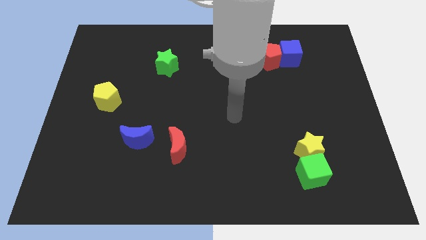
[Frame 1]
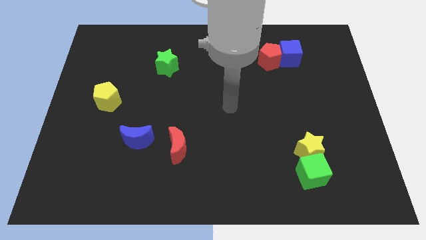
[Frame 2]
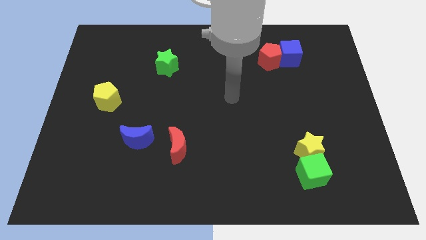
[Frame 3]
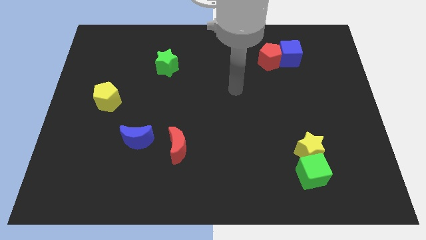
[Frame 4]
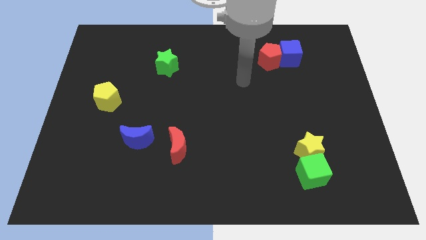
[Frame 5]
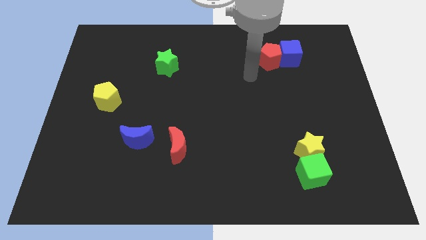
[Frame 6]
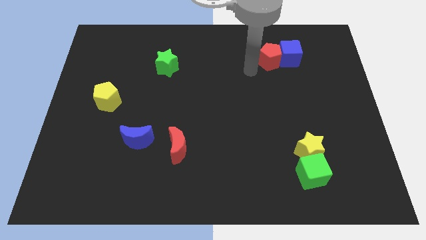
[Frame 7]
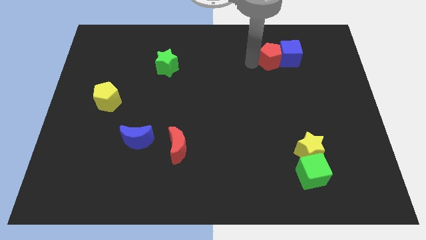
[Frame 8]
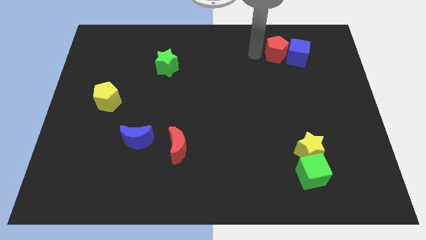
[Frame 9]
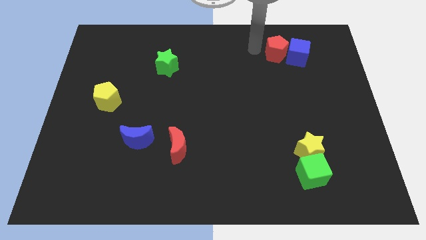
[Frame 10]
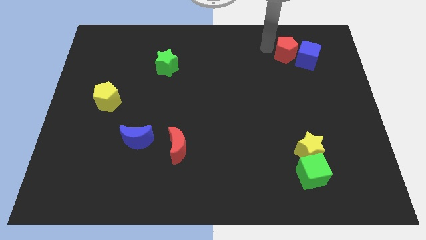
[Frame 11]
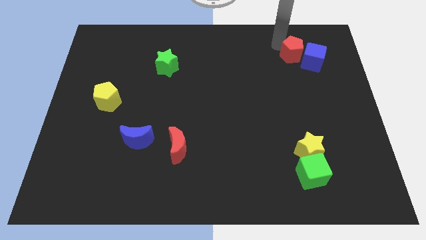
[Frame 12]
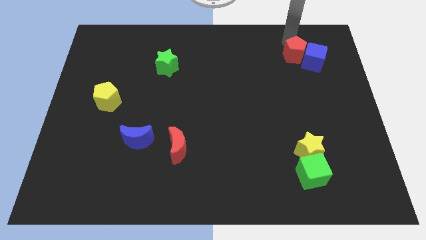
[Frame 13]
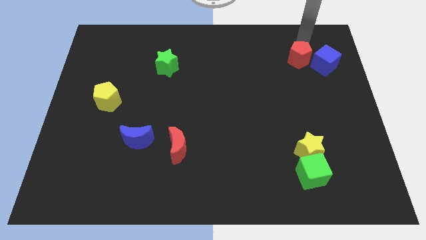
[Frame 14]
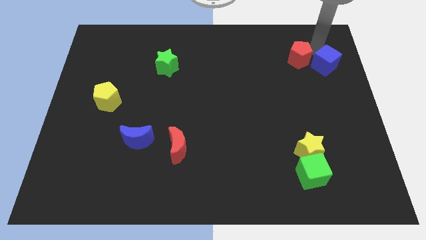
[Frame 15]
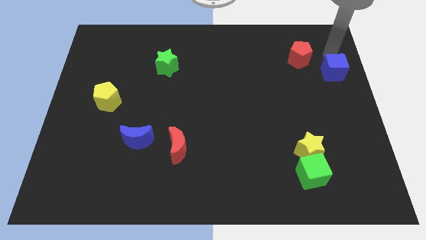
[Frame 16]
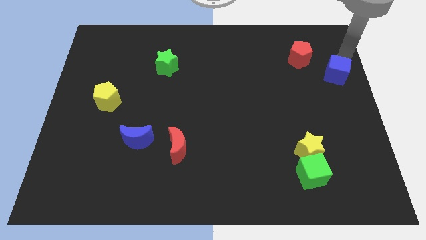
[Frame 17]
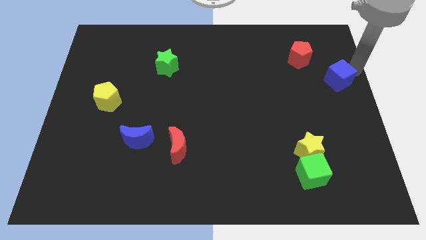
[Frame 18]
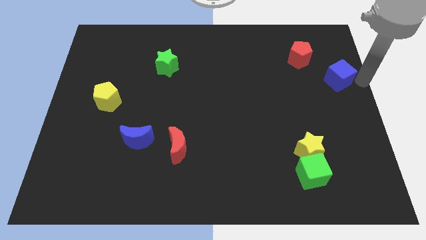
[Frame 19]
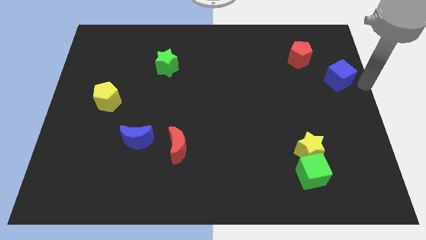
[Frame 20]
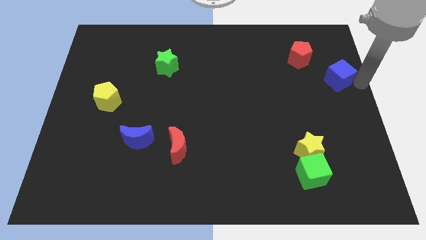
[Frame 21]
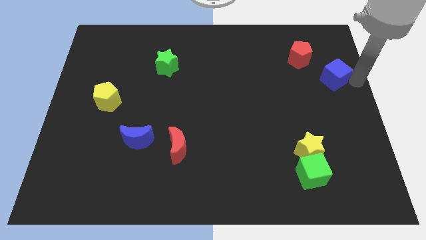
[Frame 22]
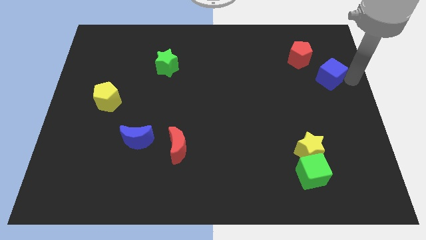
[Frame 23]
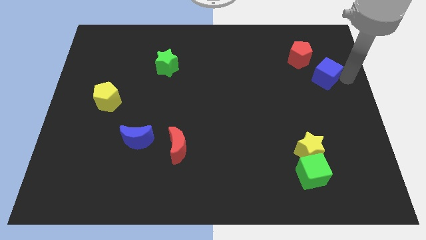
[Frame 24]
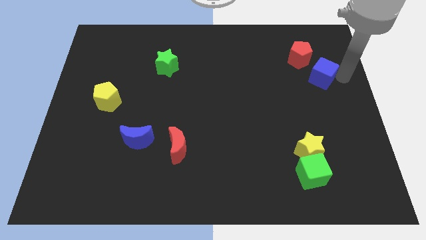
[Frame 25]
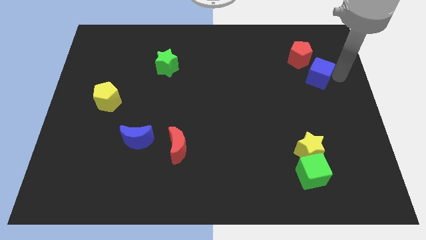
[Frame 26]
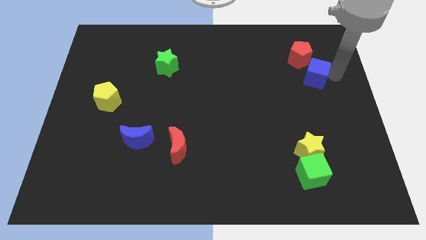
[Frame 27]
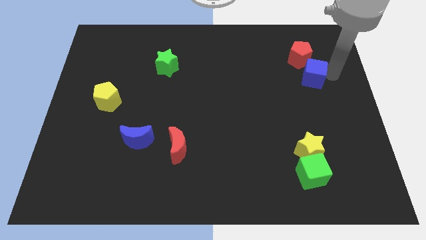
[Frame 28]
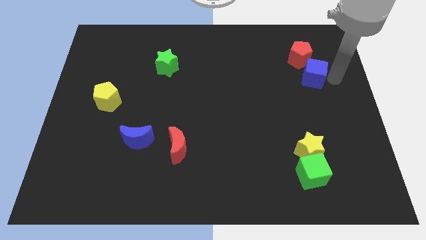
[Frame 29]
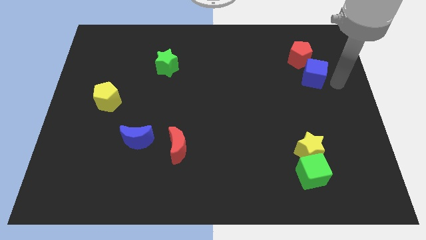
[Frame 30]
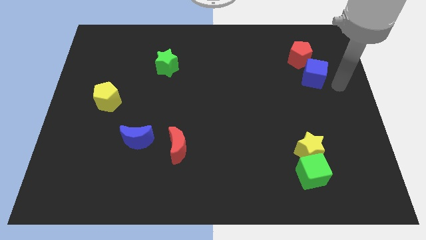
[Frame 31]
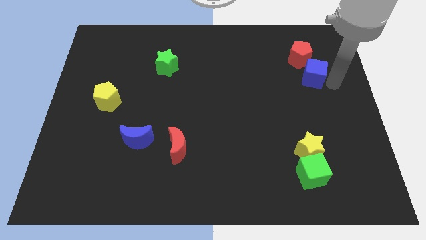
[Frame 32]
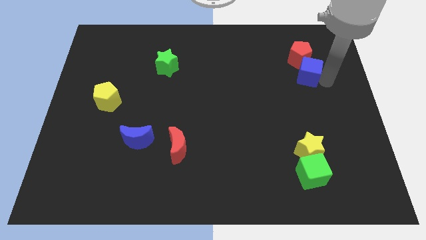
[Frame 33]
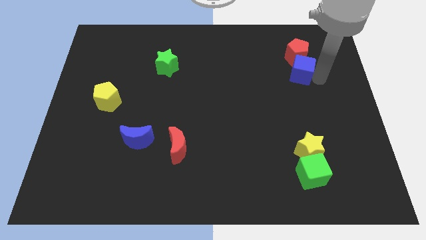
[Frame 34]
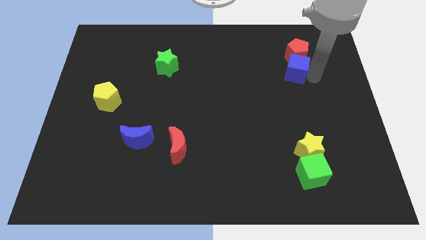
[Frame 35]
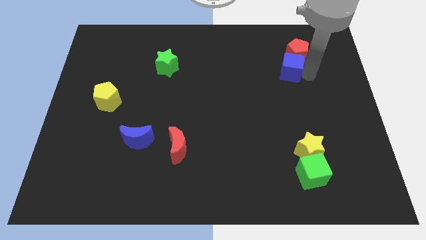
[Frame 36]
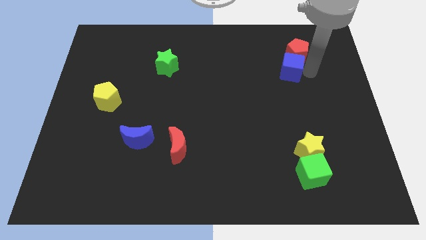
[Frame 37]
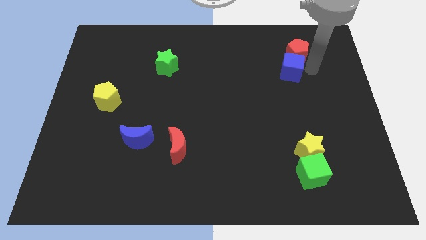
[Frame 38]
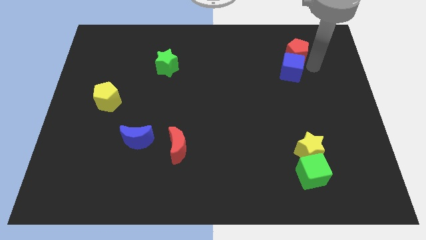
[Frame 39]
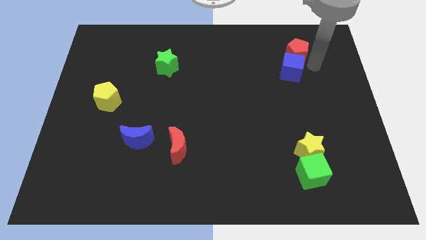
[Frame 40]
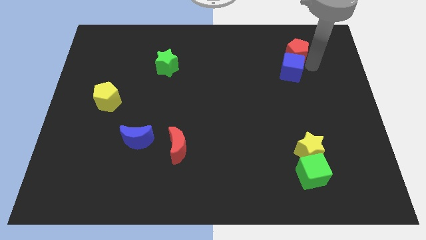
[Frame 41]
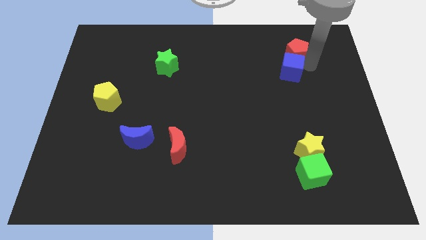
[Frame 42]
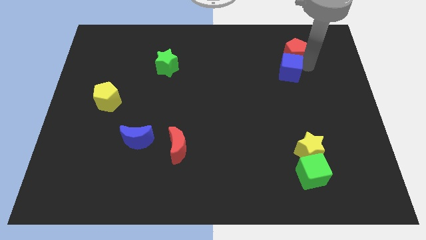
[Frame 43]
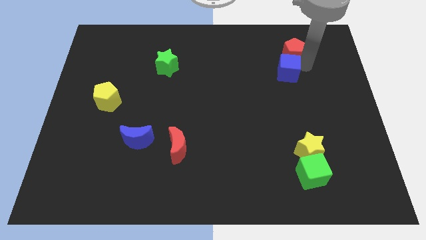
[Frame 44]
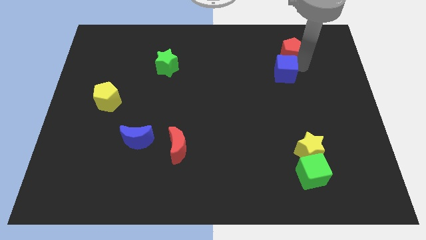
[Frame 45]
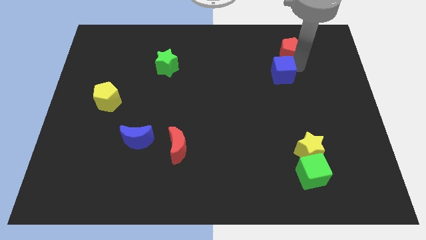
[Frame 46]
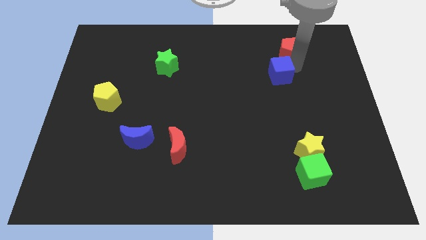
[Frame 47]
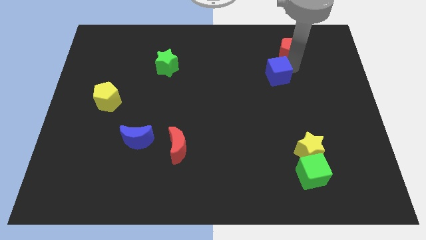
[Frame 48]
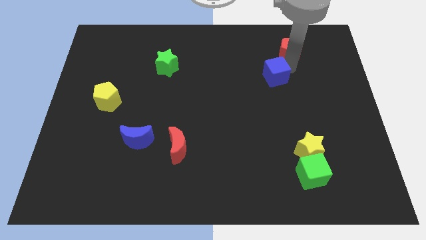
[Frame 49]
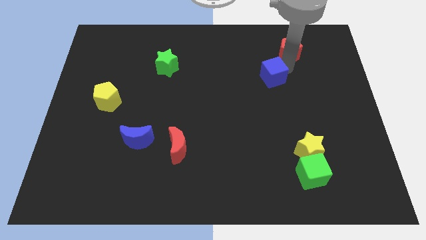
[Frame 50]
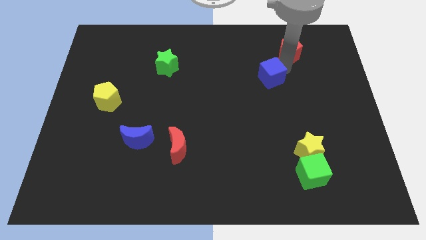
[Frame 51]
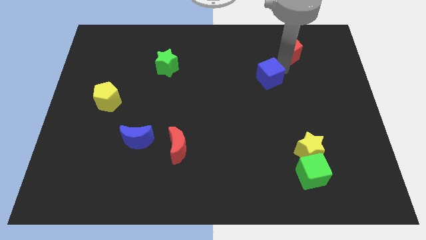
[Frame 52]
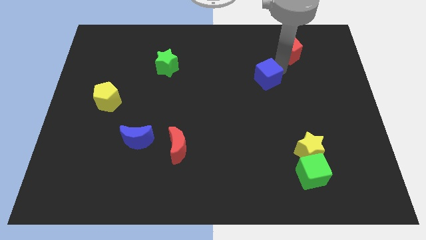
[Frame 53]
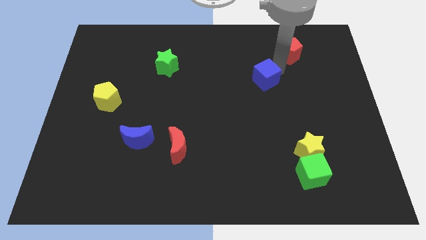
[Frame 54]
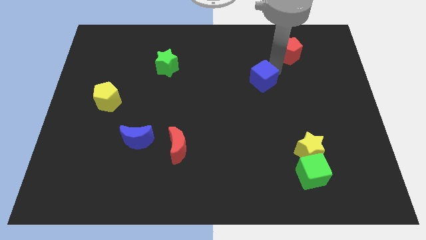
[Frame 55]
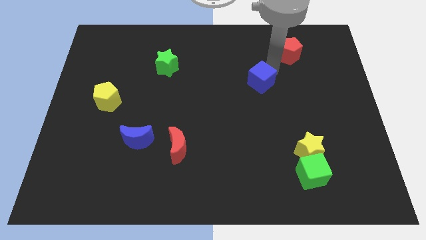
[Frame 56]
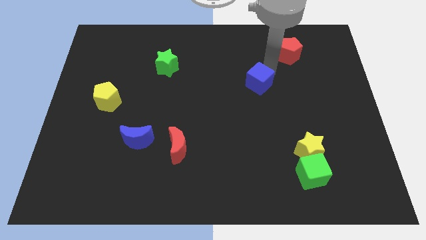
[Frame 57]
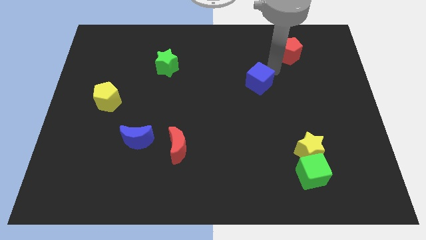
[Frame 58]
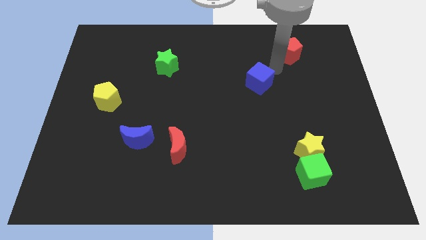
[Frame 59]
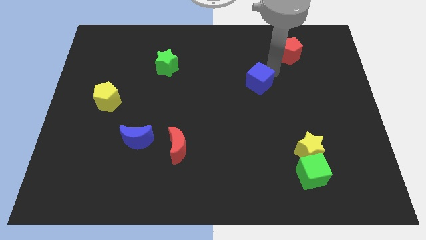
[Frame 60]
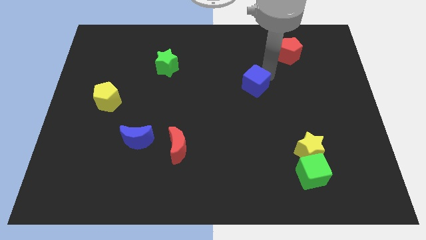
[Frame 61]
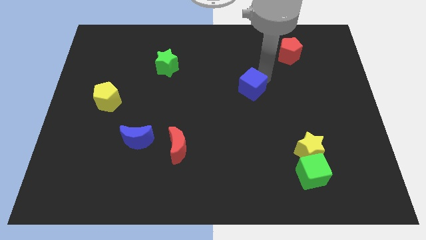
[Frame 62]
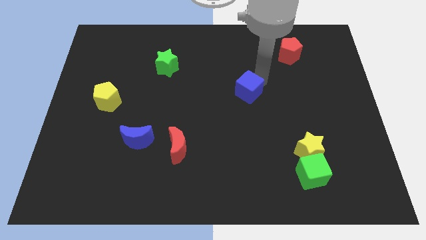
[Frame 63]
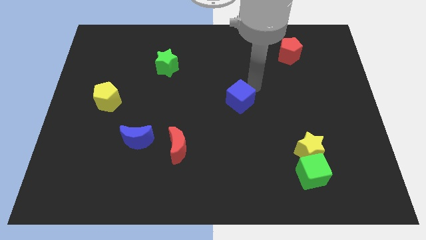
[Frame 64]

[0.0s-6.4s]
push the blue cube down and to the left diagonally

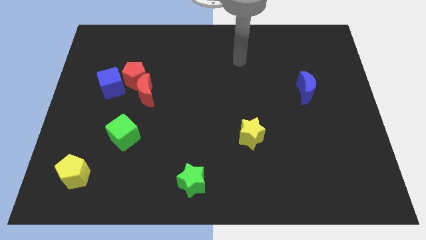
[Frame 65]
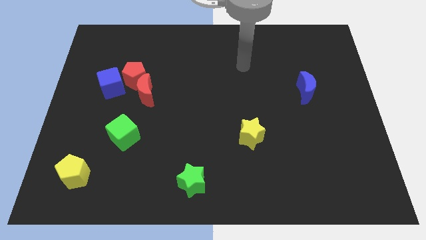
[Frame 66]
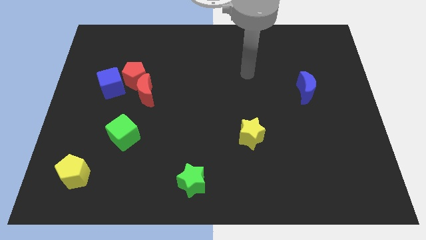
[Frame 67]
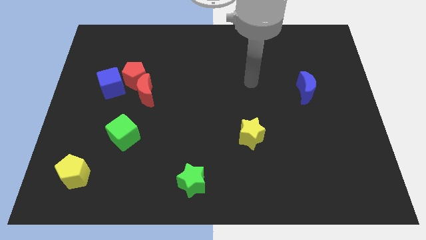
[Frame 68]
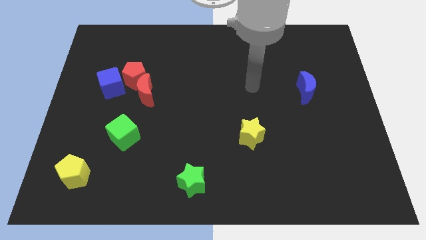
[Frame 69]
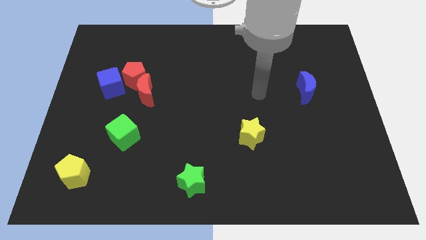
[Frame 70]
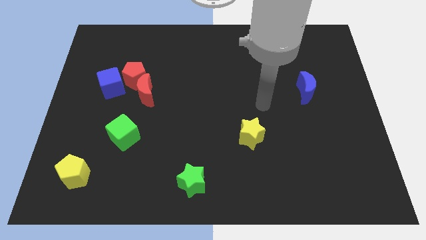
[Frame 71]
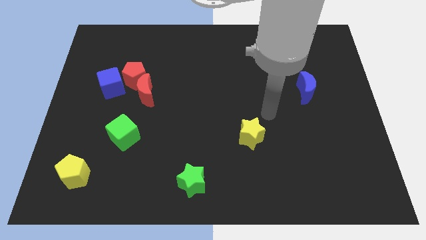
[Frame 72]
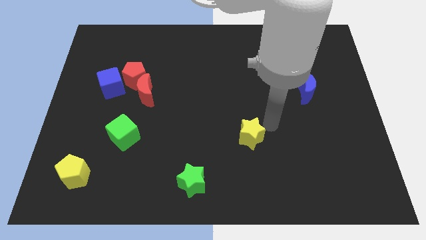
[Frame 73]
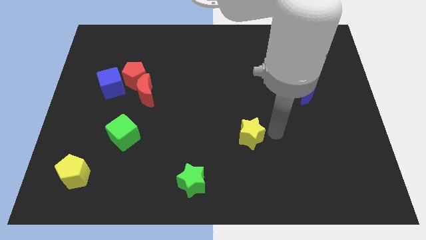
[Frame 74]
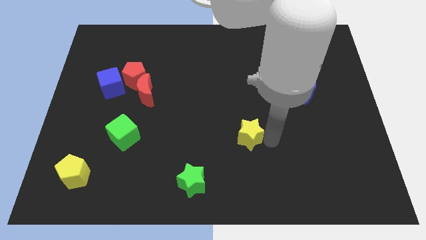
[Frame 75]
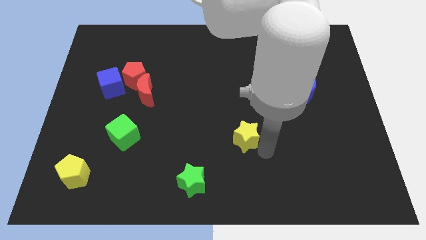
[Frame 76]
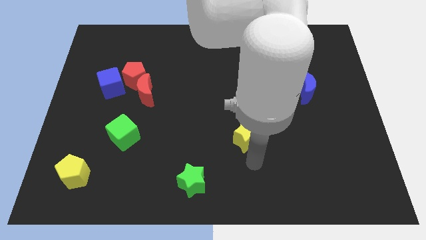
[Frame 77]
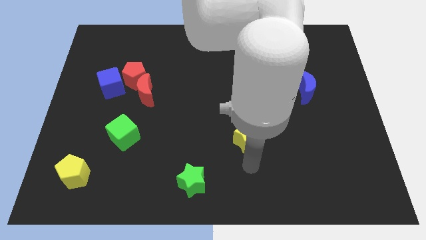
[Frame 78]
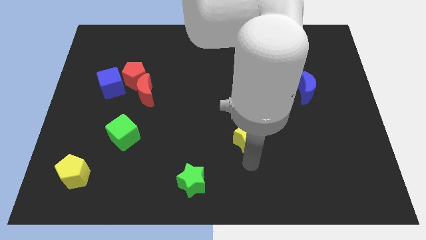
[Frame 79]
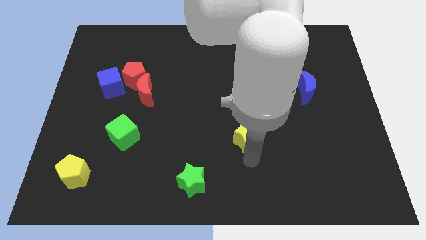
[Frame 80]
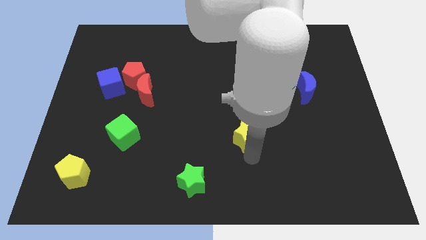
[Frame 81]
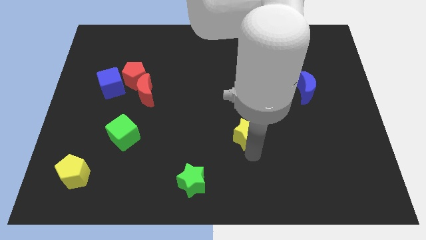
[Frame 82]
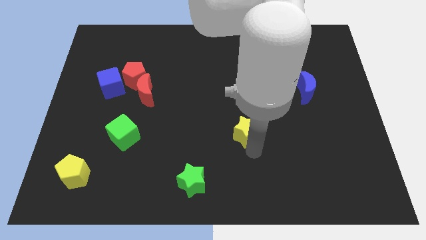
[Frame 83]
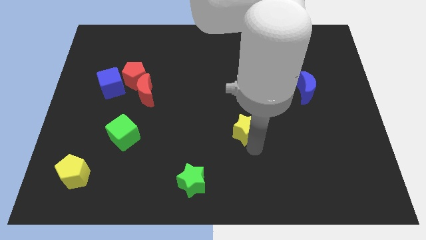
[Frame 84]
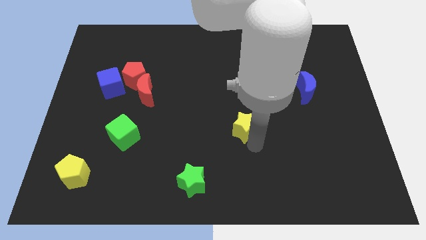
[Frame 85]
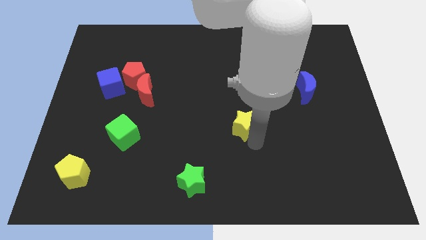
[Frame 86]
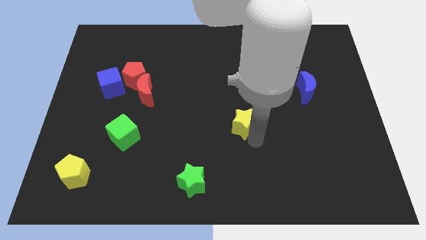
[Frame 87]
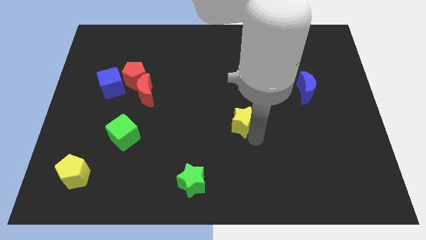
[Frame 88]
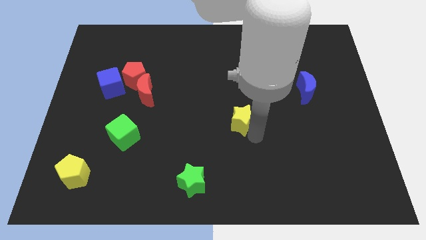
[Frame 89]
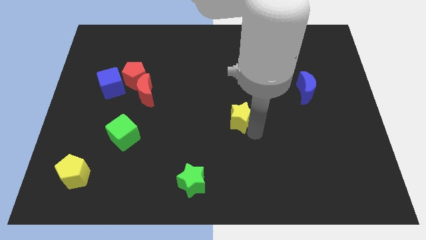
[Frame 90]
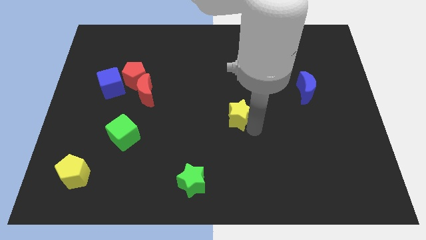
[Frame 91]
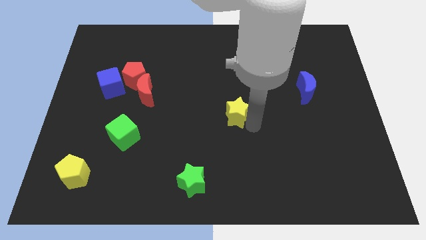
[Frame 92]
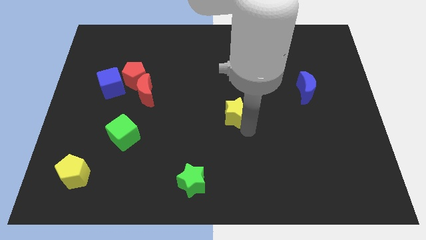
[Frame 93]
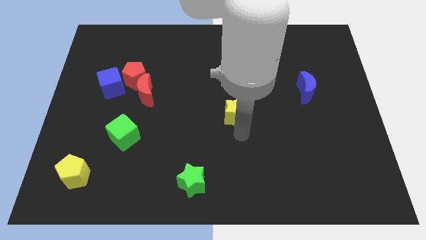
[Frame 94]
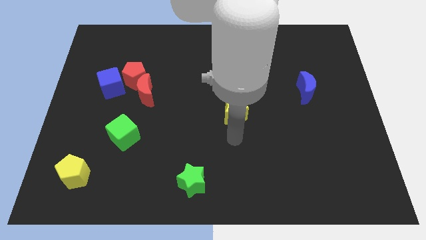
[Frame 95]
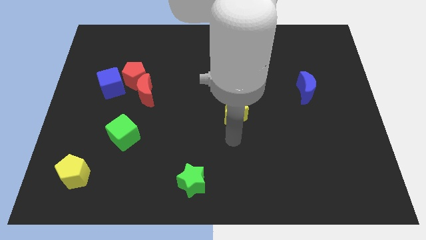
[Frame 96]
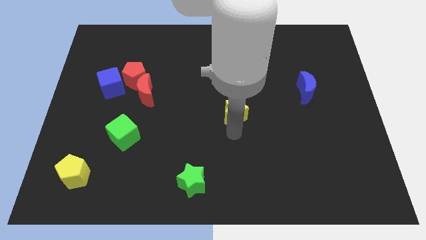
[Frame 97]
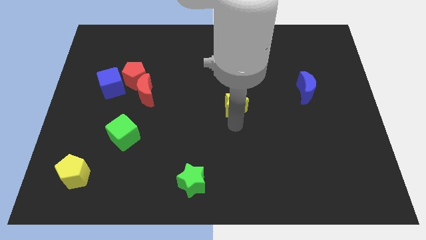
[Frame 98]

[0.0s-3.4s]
slightly push the yellow star up
